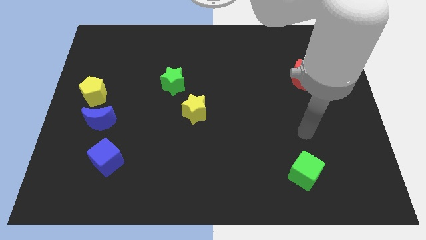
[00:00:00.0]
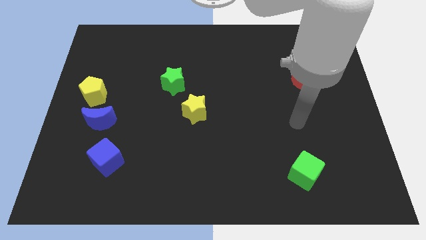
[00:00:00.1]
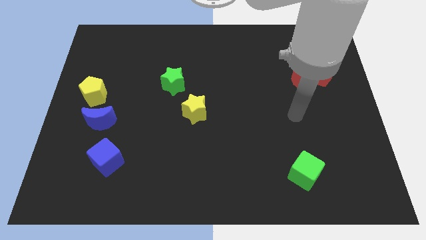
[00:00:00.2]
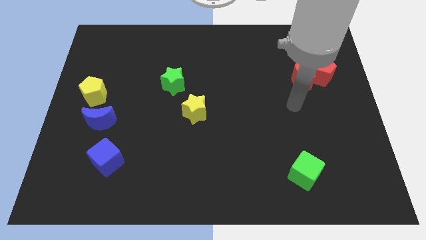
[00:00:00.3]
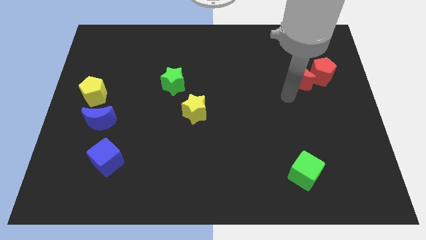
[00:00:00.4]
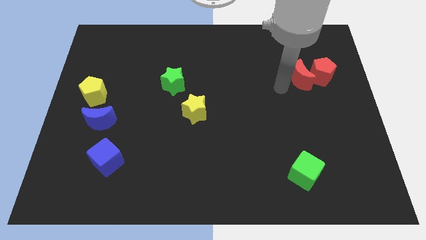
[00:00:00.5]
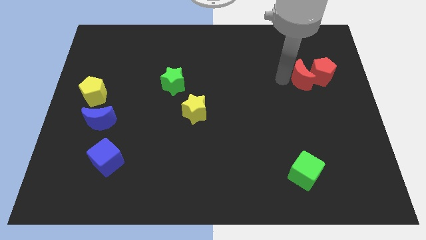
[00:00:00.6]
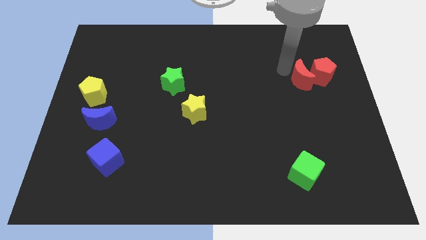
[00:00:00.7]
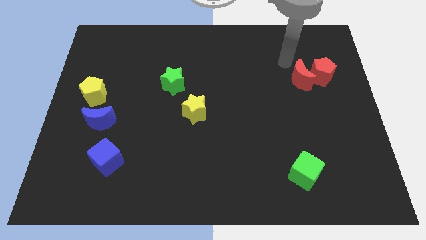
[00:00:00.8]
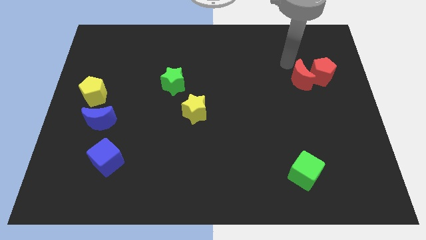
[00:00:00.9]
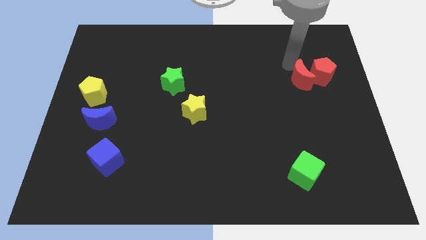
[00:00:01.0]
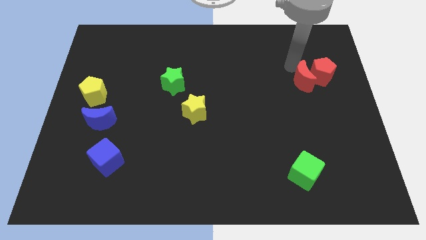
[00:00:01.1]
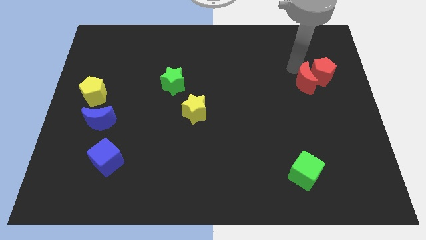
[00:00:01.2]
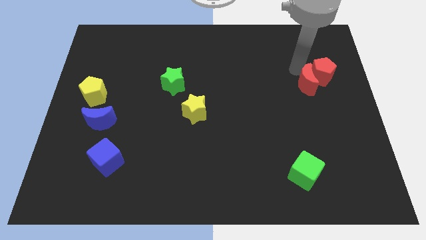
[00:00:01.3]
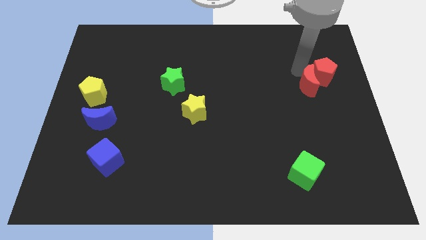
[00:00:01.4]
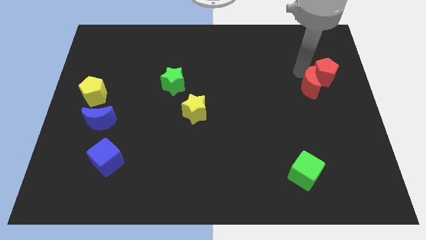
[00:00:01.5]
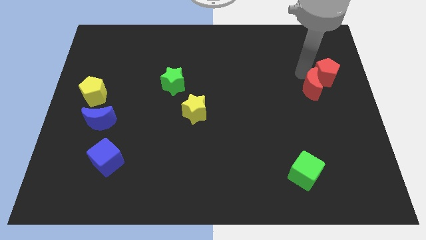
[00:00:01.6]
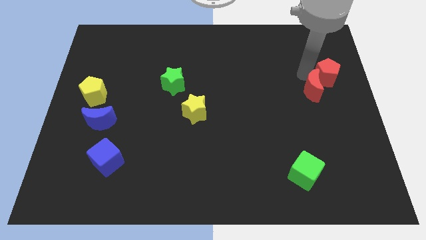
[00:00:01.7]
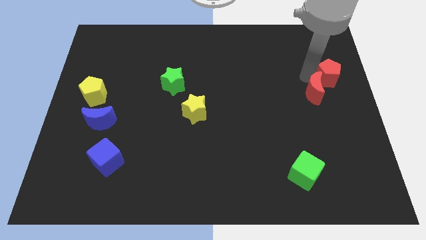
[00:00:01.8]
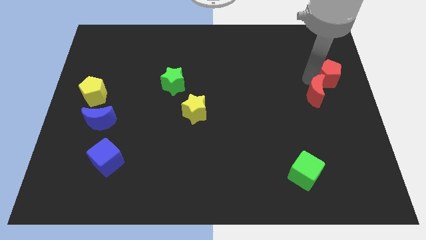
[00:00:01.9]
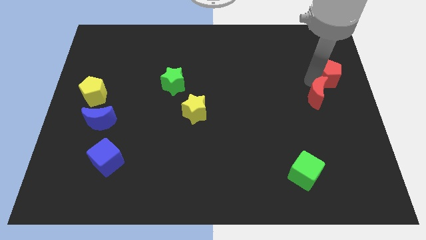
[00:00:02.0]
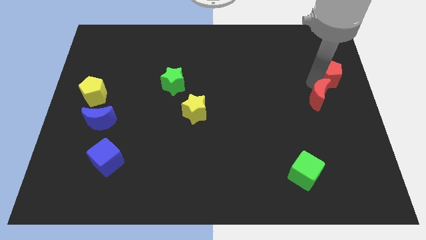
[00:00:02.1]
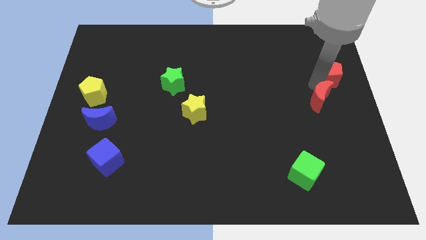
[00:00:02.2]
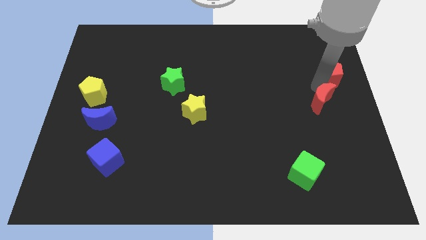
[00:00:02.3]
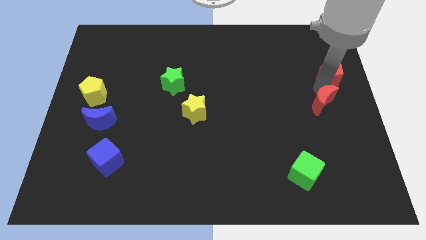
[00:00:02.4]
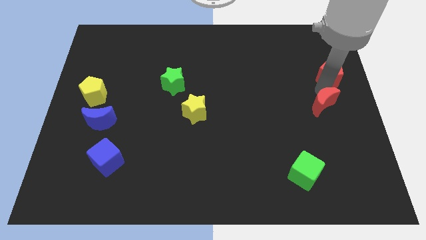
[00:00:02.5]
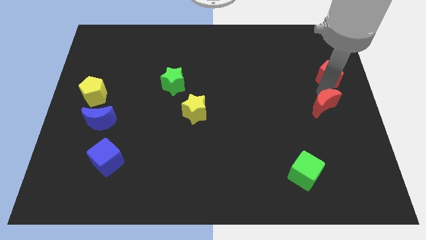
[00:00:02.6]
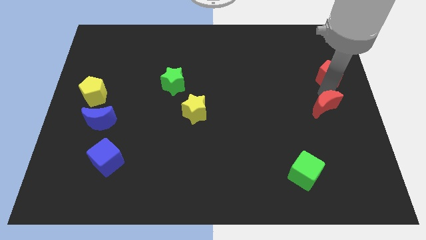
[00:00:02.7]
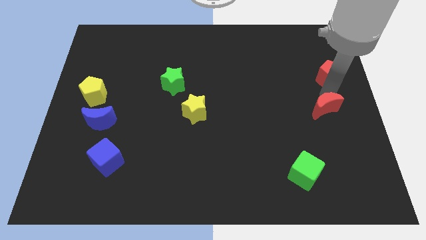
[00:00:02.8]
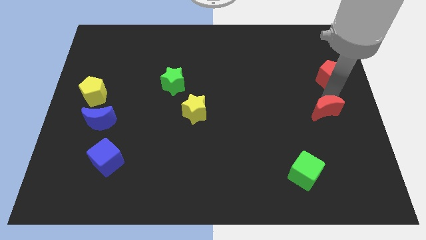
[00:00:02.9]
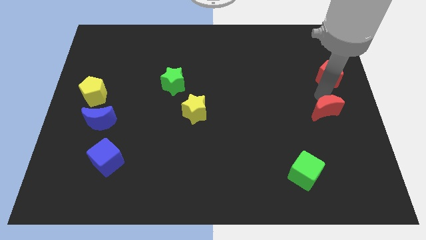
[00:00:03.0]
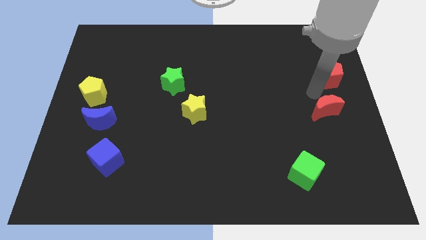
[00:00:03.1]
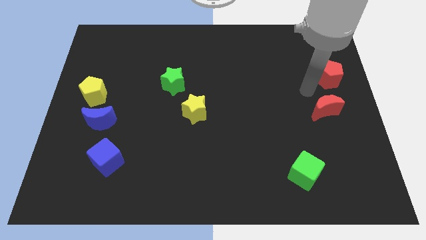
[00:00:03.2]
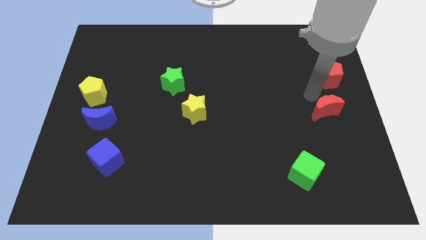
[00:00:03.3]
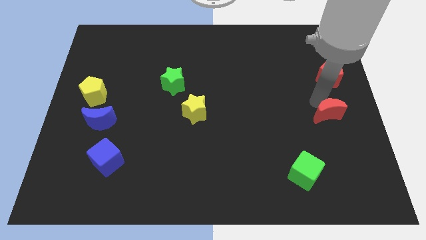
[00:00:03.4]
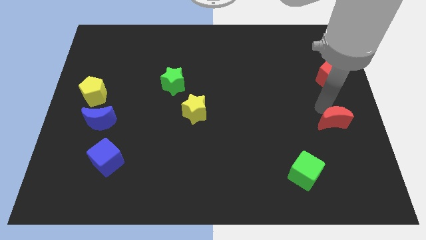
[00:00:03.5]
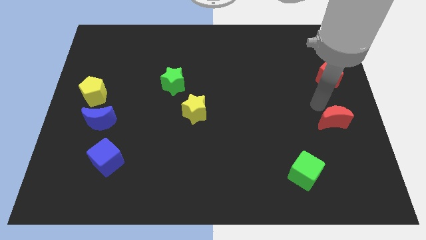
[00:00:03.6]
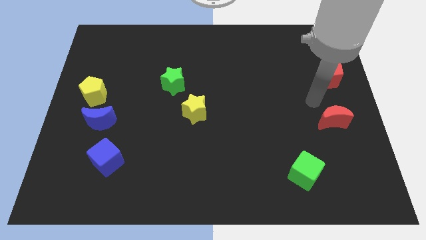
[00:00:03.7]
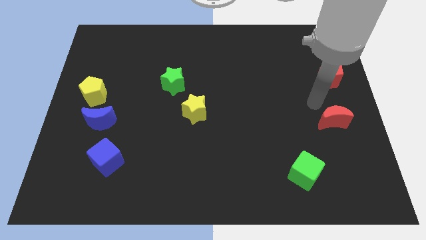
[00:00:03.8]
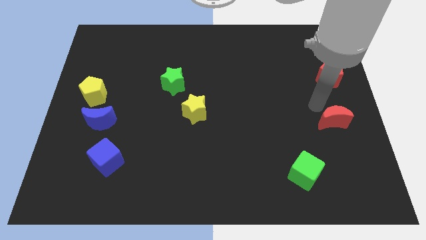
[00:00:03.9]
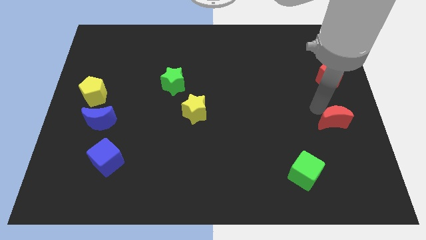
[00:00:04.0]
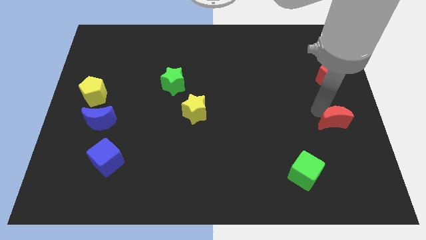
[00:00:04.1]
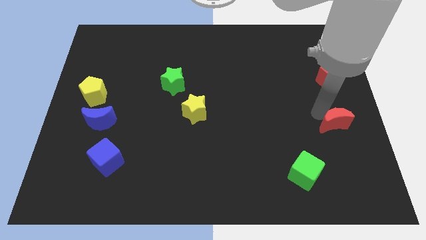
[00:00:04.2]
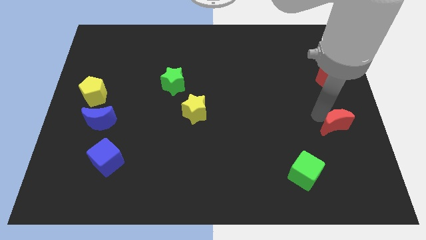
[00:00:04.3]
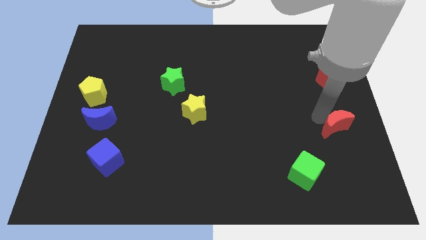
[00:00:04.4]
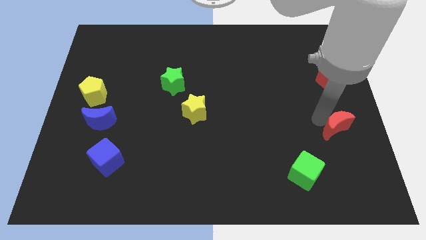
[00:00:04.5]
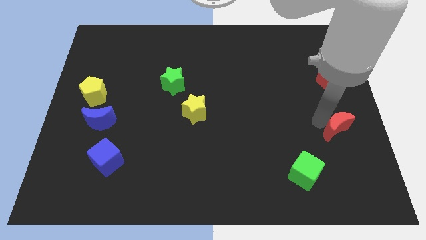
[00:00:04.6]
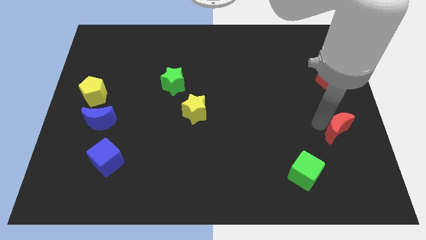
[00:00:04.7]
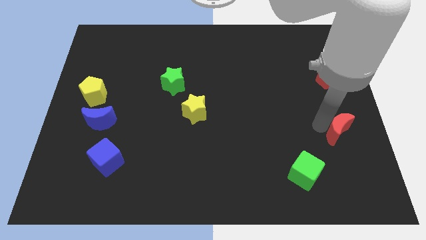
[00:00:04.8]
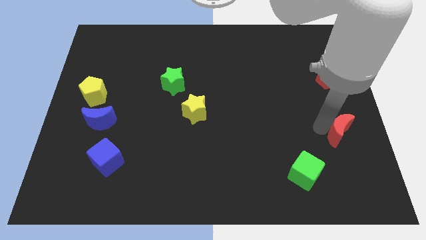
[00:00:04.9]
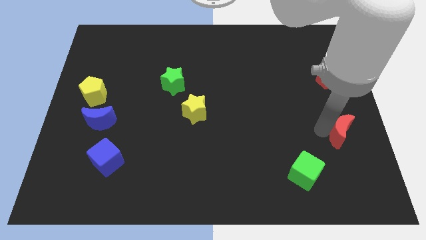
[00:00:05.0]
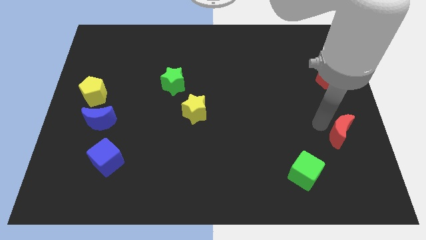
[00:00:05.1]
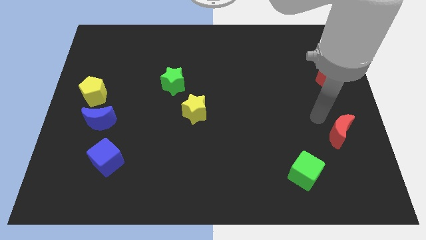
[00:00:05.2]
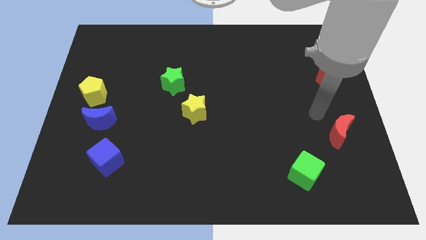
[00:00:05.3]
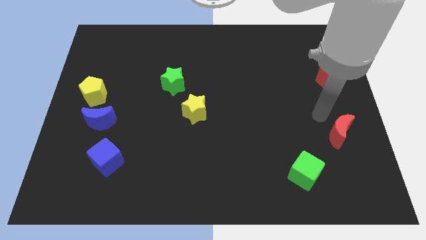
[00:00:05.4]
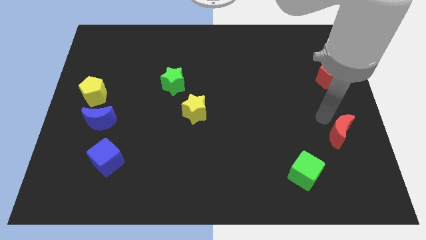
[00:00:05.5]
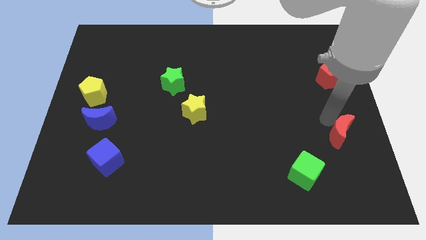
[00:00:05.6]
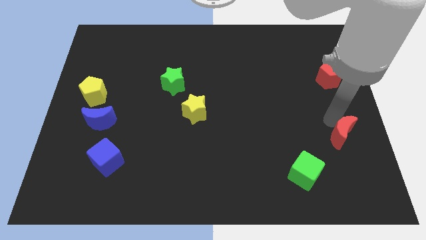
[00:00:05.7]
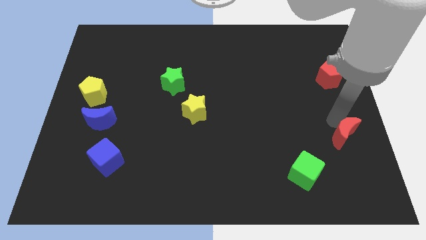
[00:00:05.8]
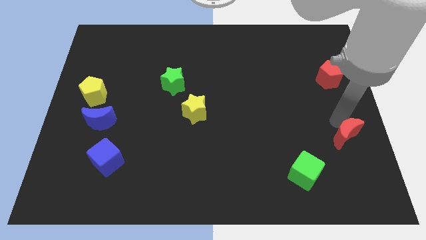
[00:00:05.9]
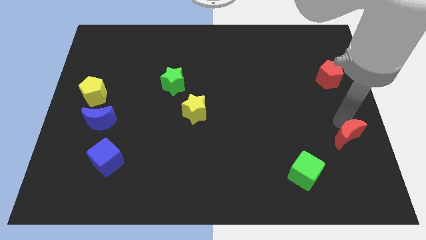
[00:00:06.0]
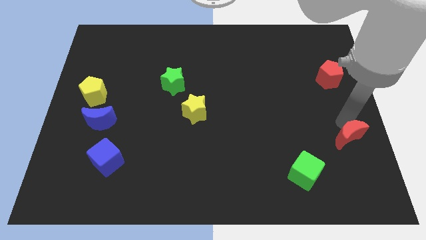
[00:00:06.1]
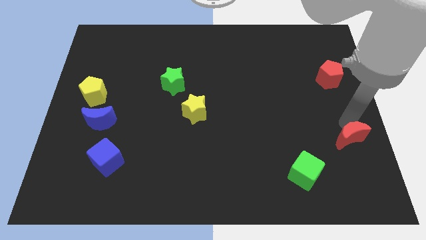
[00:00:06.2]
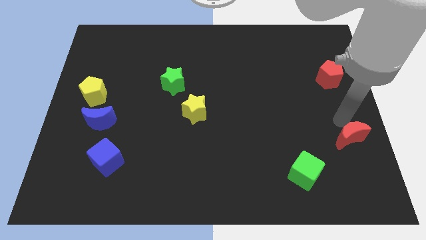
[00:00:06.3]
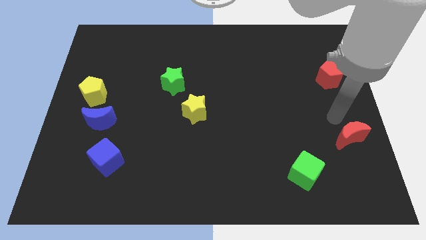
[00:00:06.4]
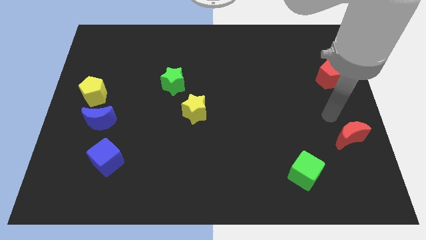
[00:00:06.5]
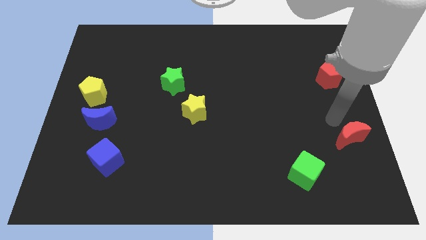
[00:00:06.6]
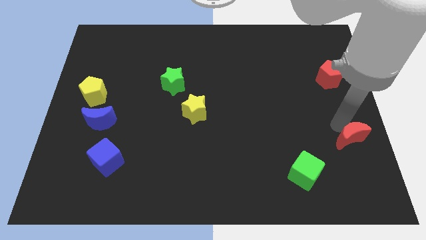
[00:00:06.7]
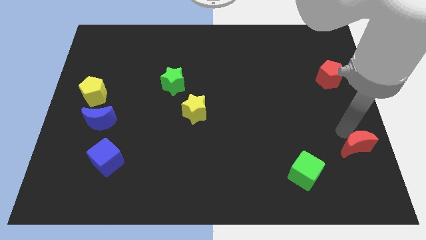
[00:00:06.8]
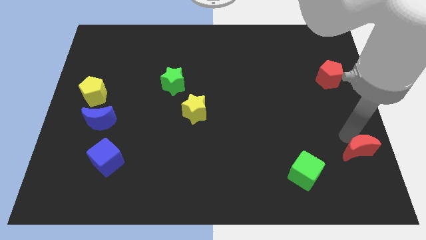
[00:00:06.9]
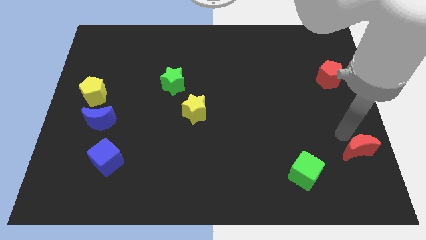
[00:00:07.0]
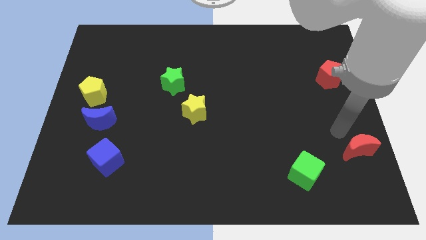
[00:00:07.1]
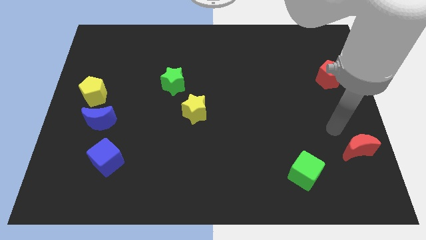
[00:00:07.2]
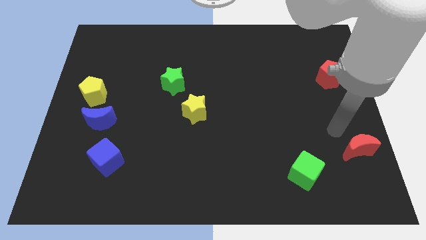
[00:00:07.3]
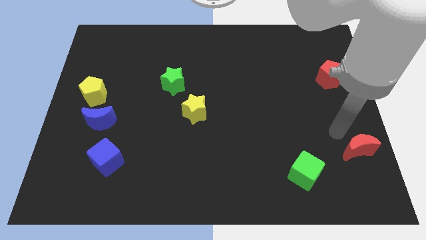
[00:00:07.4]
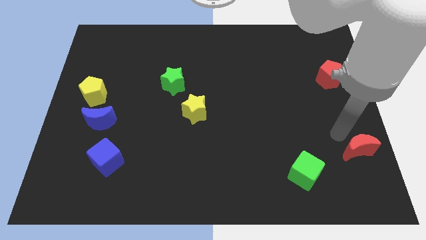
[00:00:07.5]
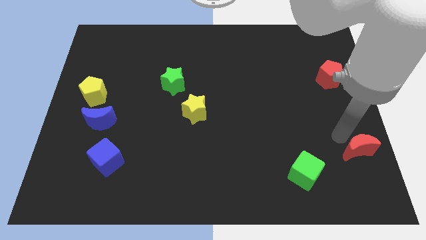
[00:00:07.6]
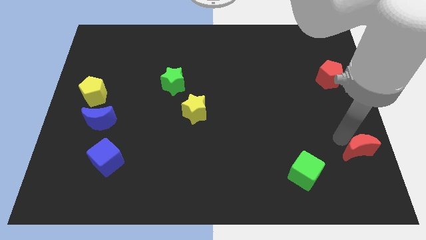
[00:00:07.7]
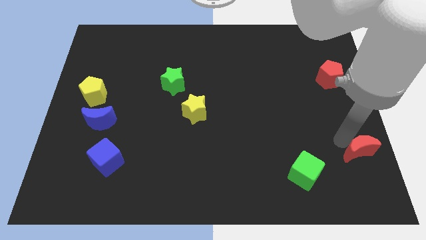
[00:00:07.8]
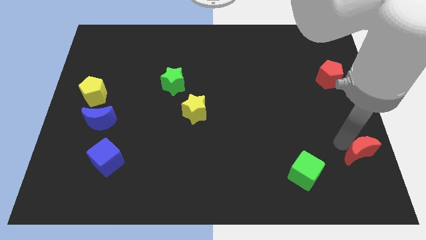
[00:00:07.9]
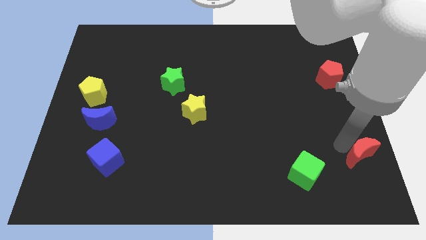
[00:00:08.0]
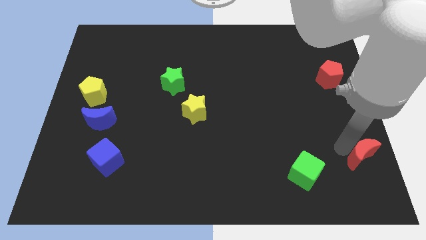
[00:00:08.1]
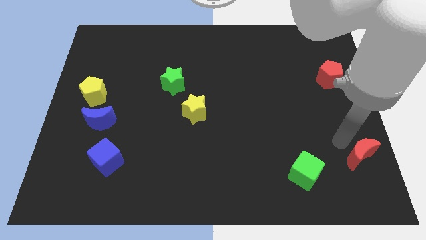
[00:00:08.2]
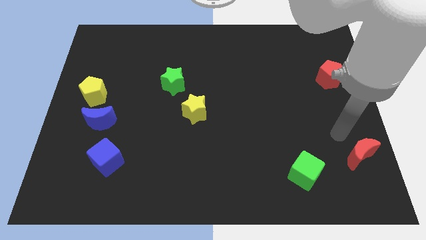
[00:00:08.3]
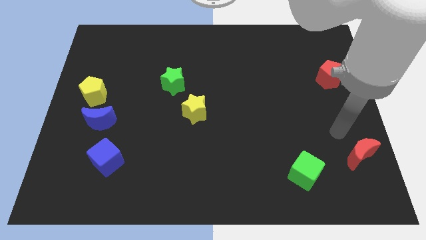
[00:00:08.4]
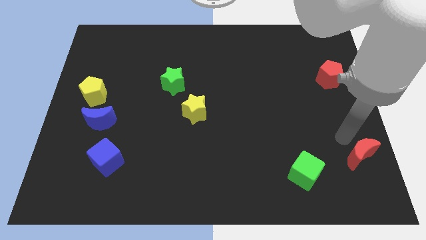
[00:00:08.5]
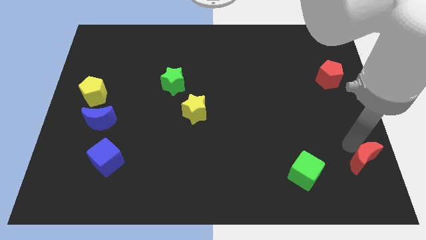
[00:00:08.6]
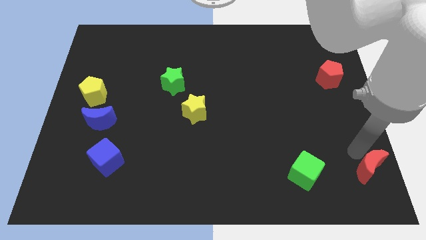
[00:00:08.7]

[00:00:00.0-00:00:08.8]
move the red moon to the bottom right corner
